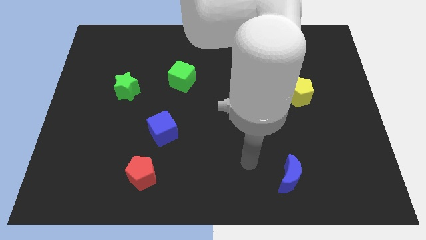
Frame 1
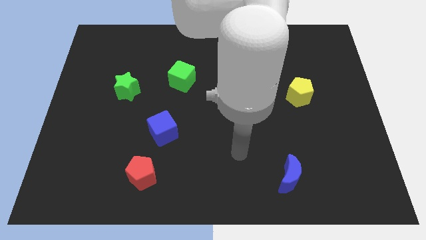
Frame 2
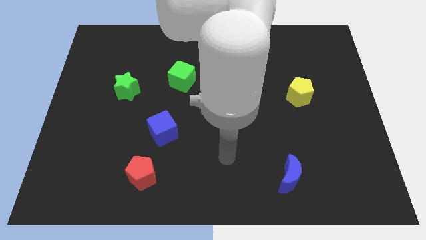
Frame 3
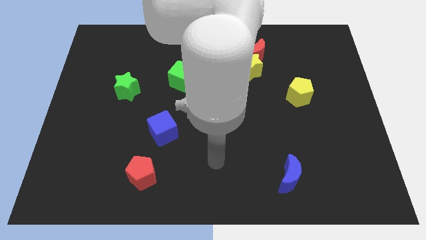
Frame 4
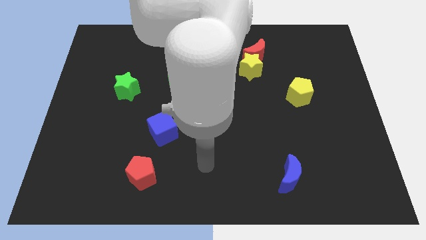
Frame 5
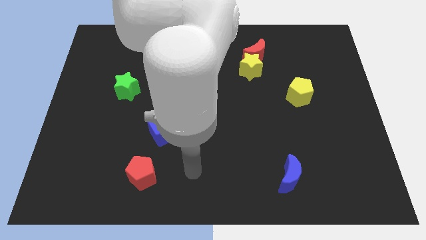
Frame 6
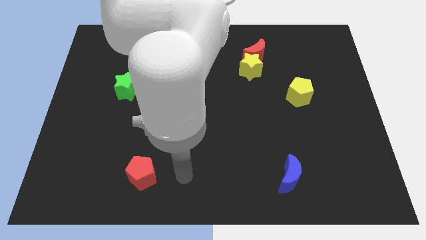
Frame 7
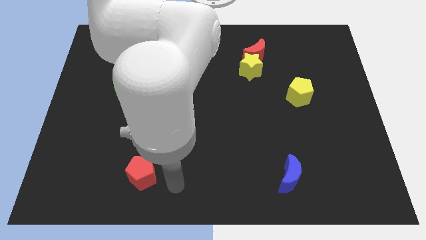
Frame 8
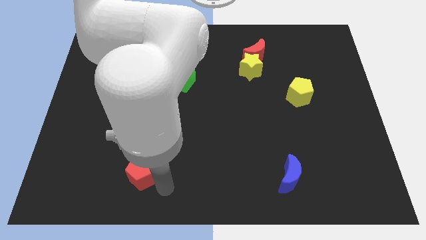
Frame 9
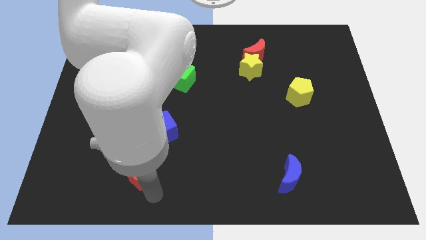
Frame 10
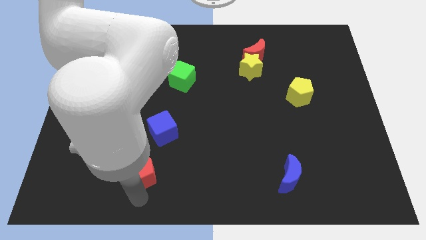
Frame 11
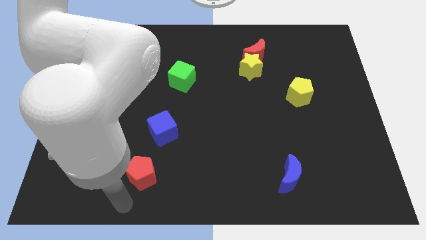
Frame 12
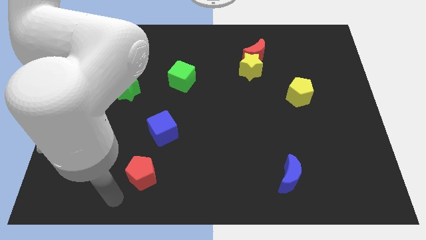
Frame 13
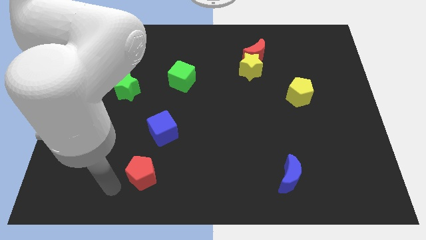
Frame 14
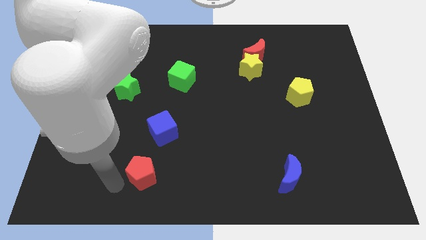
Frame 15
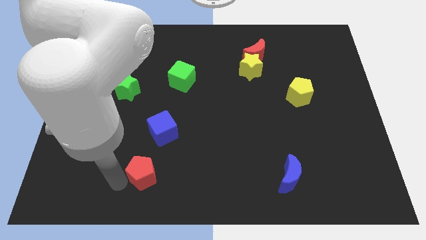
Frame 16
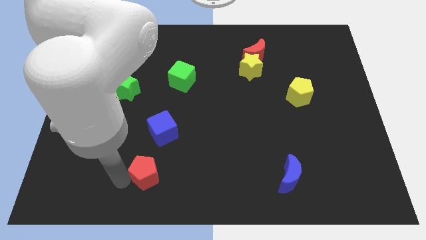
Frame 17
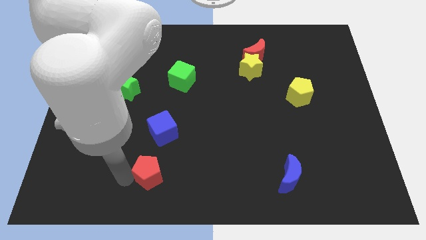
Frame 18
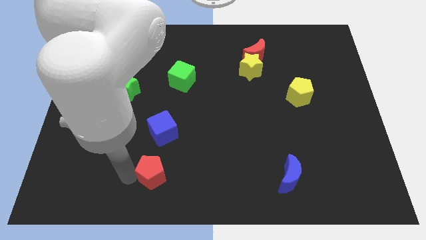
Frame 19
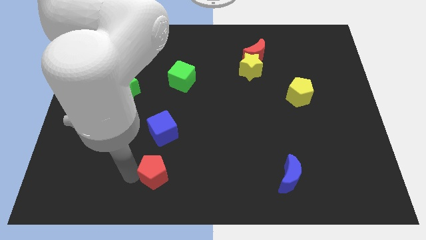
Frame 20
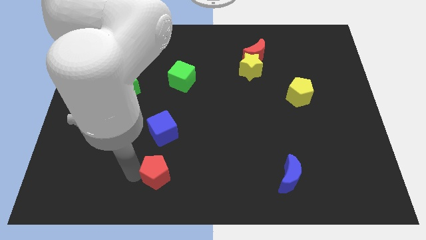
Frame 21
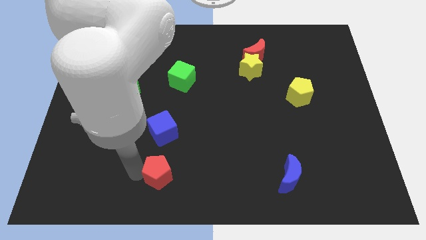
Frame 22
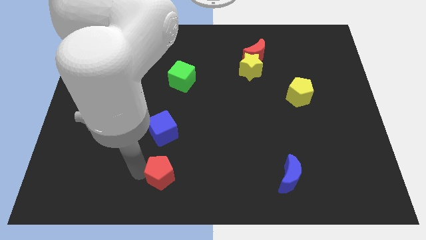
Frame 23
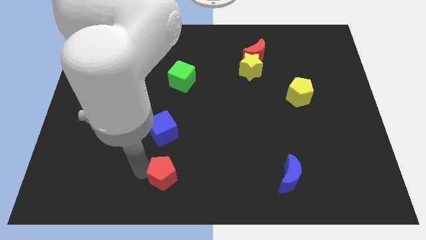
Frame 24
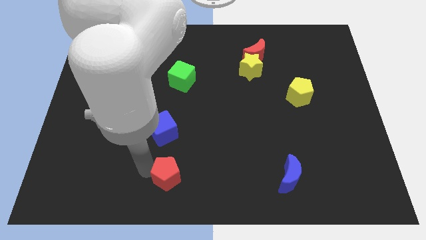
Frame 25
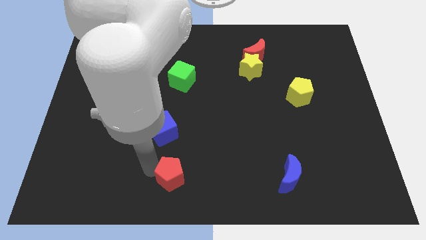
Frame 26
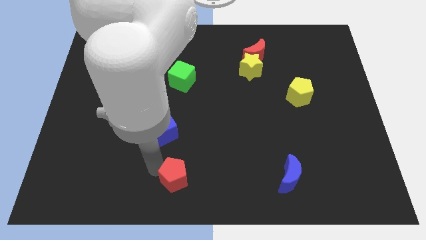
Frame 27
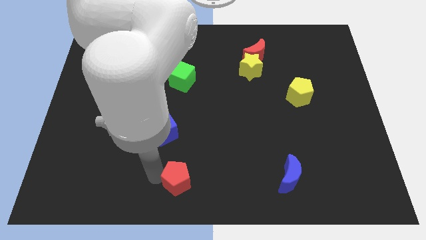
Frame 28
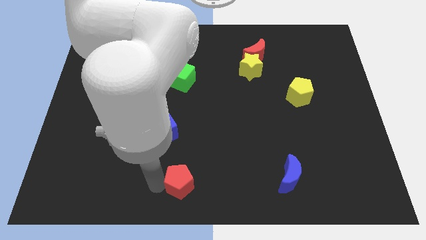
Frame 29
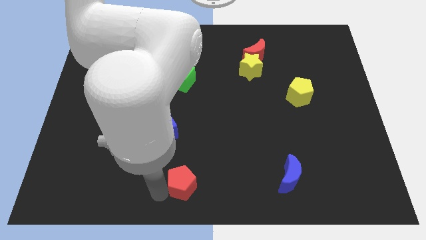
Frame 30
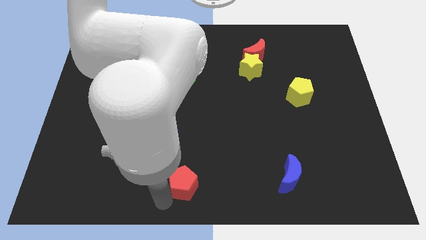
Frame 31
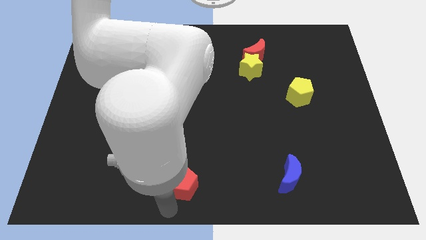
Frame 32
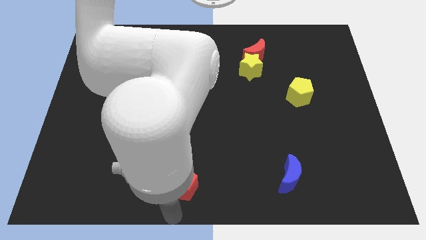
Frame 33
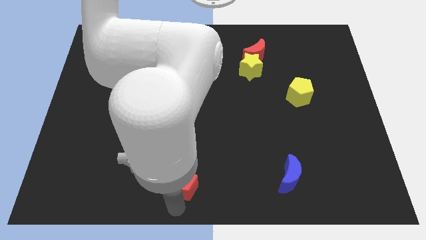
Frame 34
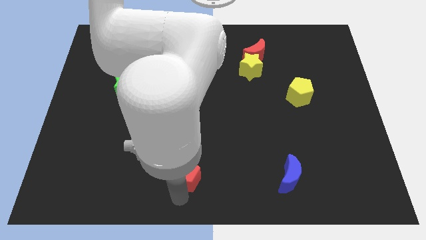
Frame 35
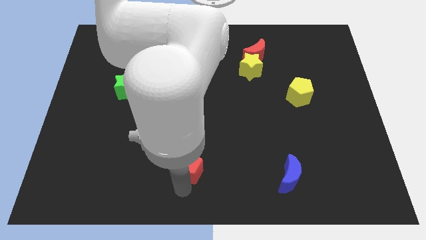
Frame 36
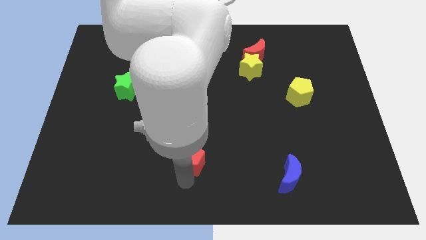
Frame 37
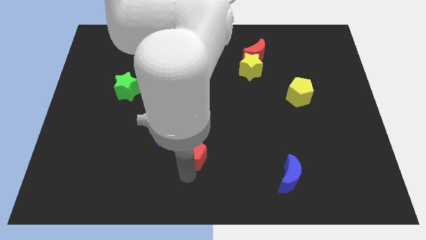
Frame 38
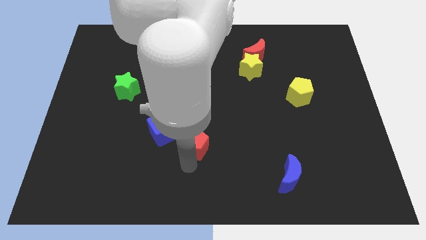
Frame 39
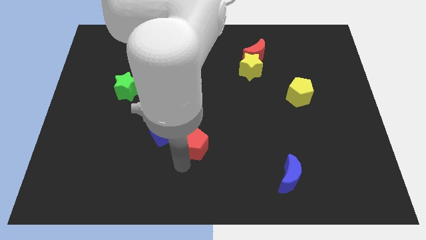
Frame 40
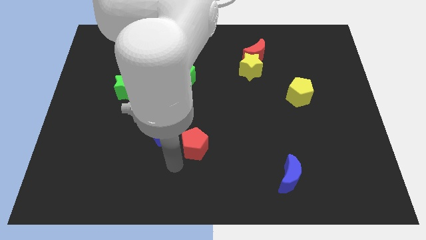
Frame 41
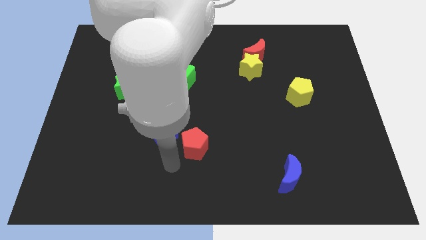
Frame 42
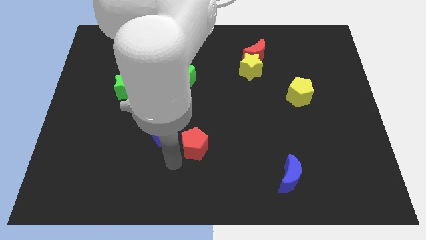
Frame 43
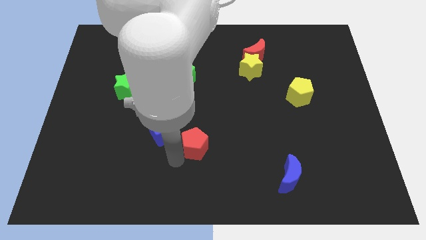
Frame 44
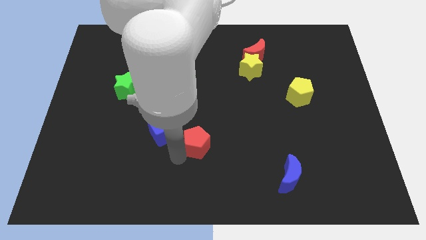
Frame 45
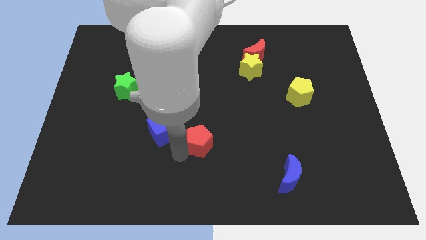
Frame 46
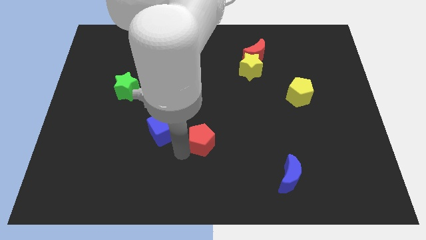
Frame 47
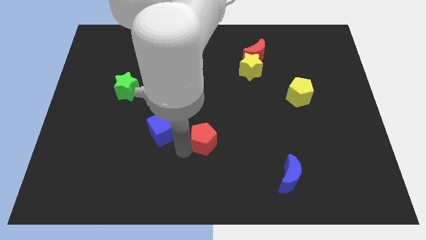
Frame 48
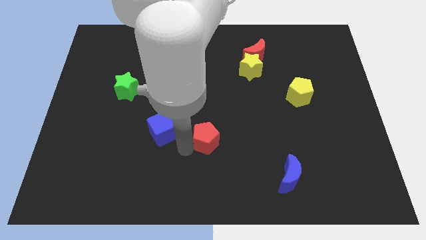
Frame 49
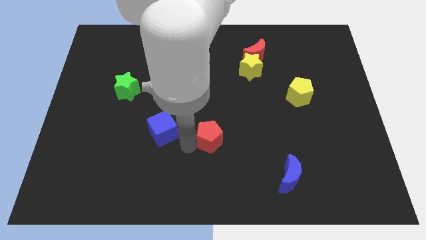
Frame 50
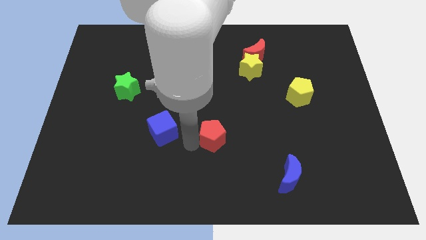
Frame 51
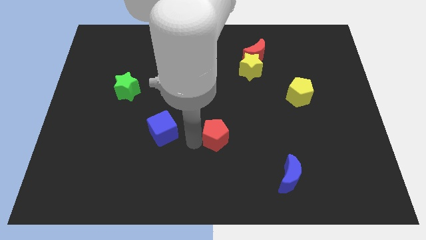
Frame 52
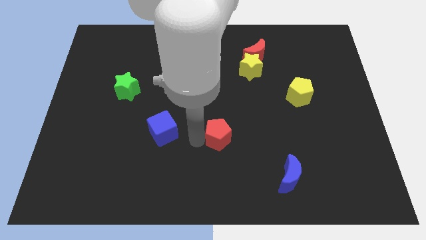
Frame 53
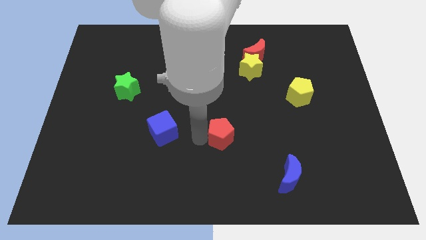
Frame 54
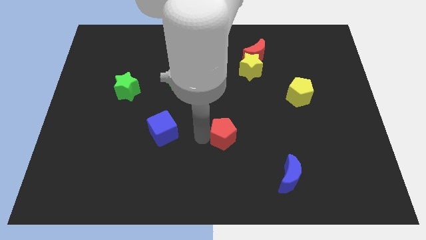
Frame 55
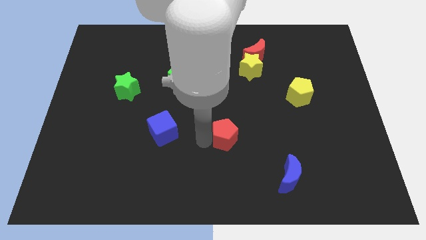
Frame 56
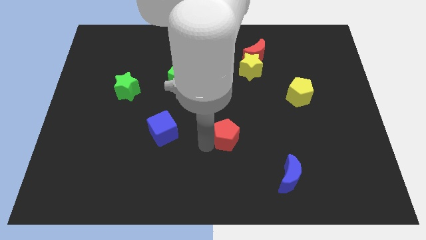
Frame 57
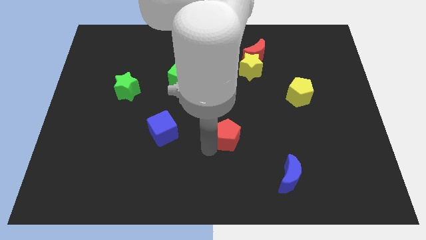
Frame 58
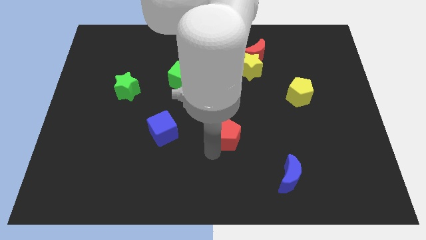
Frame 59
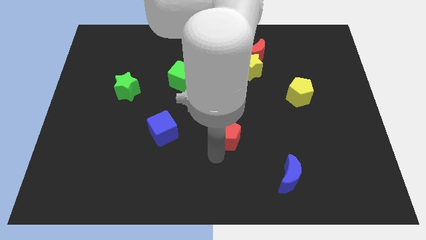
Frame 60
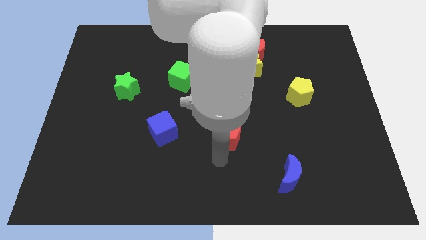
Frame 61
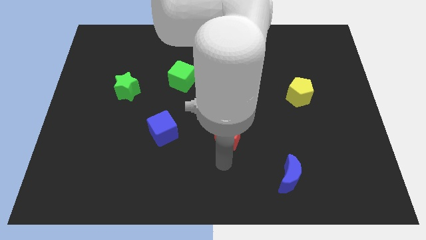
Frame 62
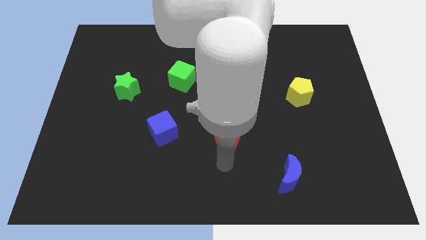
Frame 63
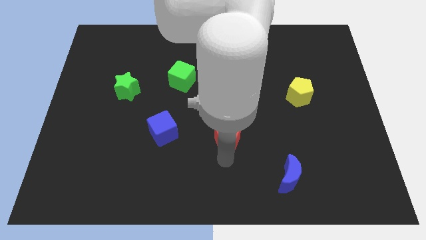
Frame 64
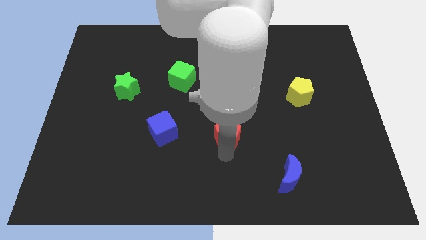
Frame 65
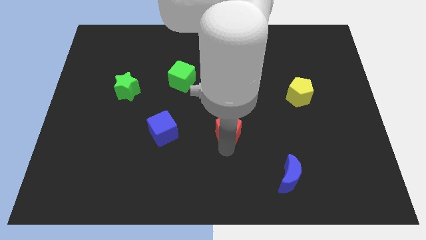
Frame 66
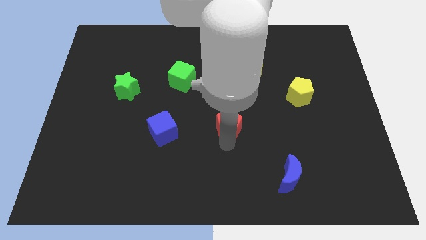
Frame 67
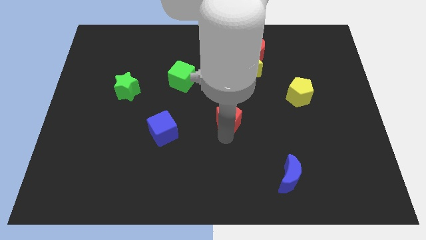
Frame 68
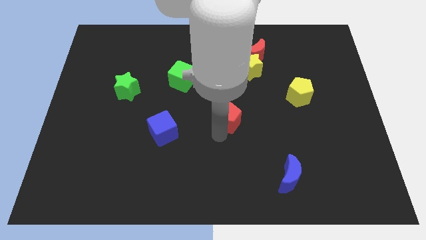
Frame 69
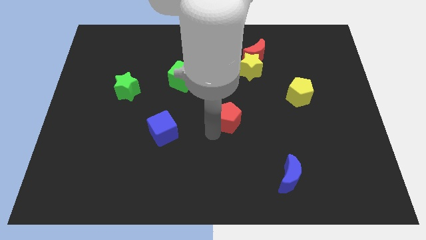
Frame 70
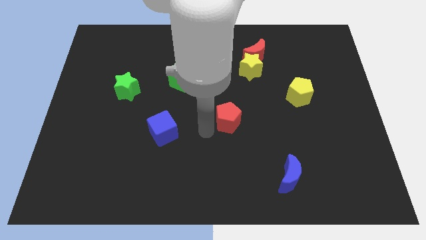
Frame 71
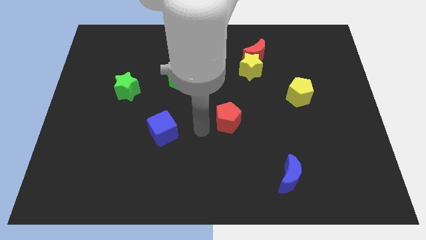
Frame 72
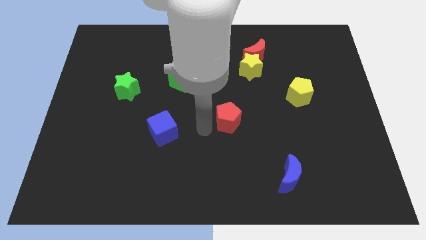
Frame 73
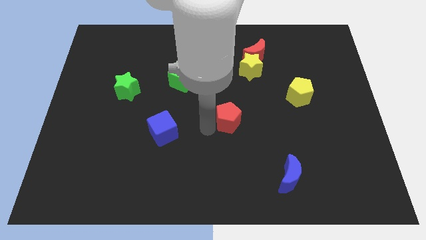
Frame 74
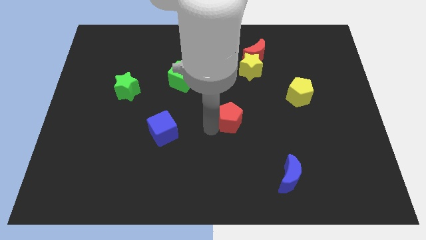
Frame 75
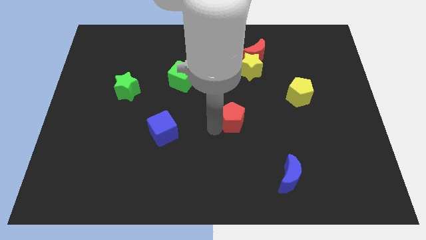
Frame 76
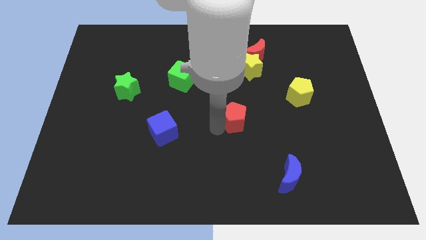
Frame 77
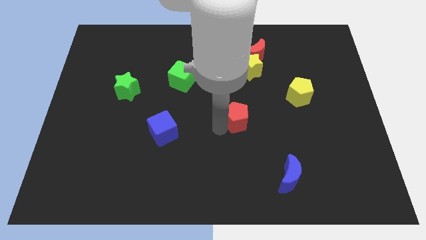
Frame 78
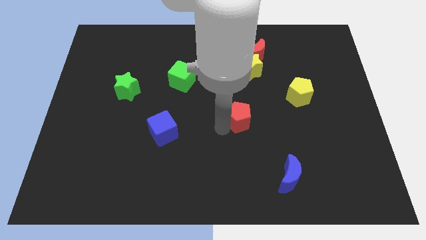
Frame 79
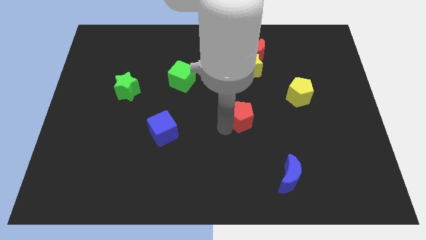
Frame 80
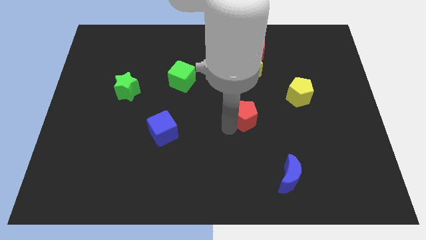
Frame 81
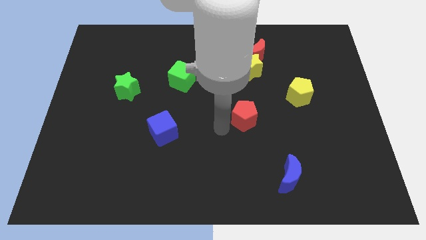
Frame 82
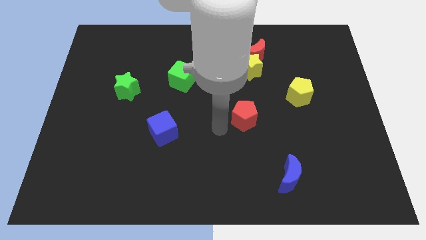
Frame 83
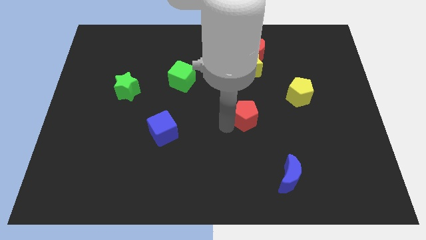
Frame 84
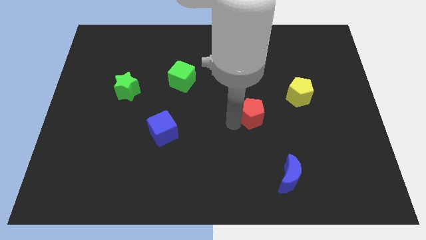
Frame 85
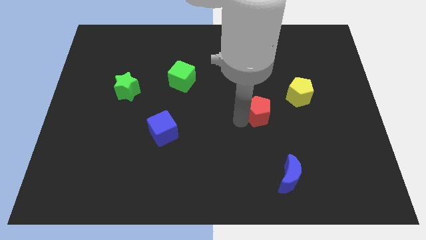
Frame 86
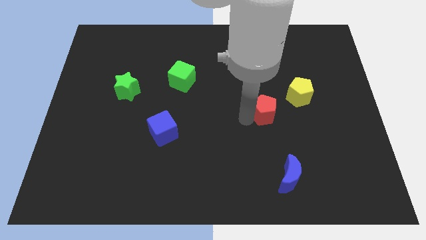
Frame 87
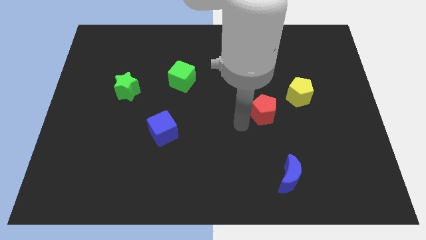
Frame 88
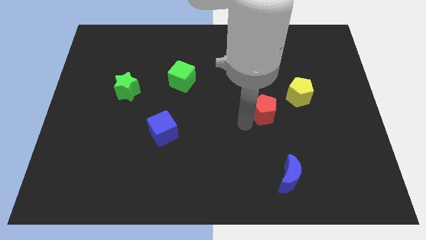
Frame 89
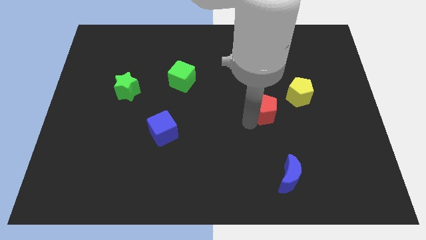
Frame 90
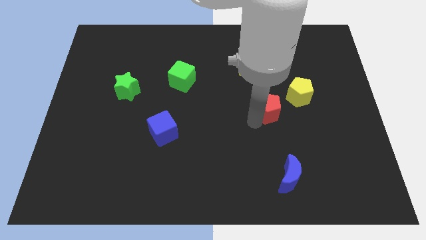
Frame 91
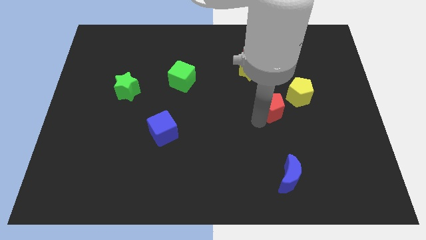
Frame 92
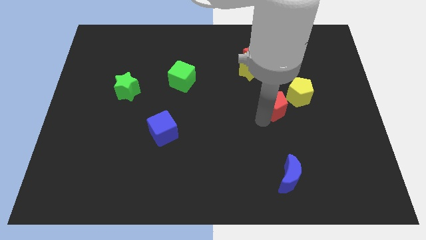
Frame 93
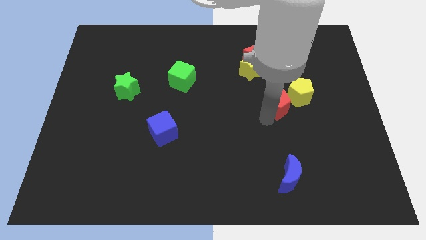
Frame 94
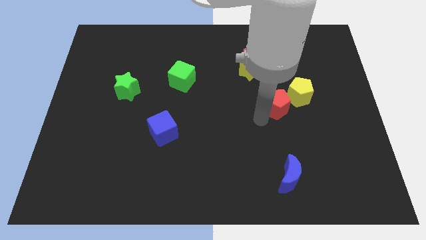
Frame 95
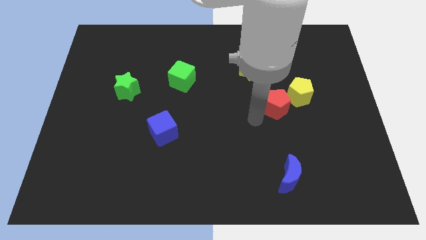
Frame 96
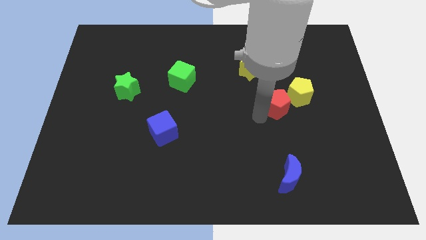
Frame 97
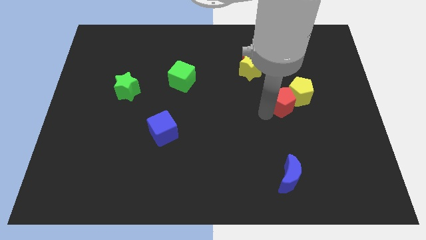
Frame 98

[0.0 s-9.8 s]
push the red pentagon towards the yellow pentagon
